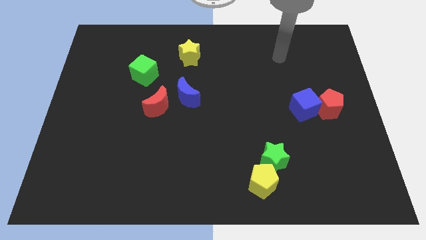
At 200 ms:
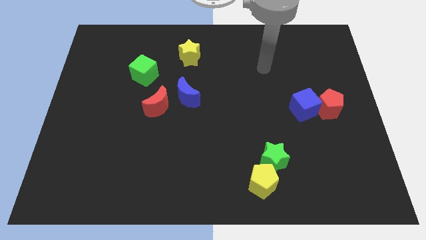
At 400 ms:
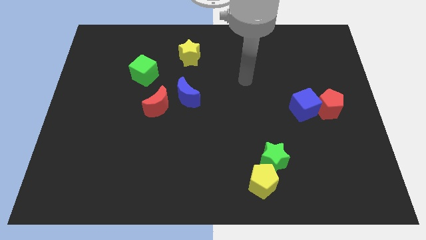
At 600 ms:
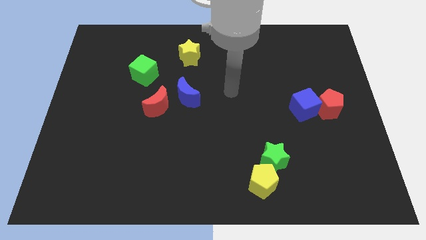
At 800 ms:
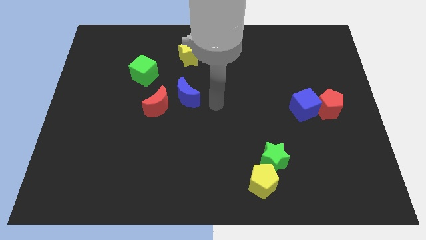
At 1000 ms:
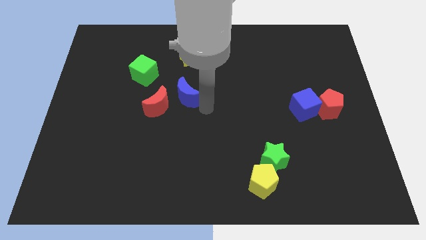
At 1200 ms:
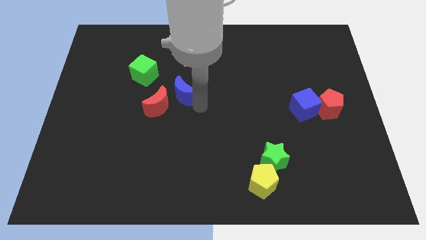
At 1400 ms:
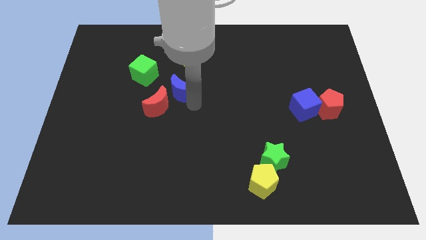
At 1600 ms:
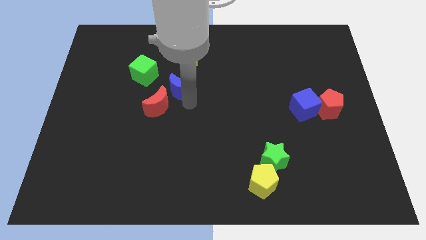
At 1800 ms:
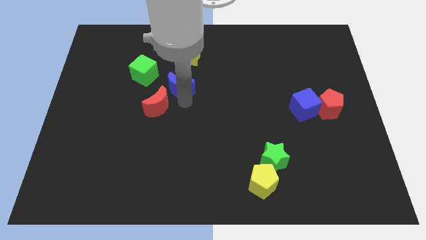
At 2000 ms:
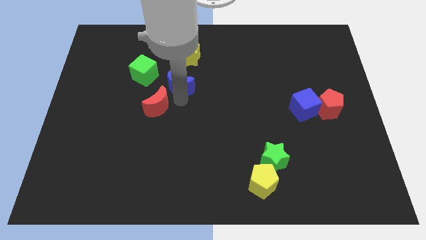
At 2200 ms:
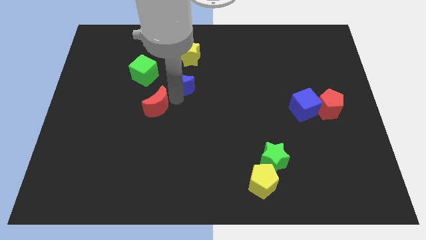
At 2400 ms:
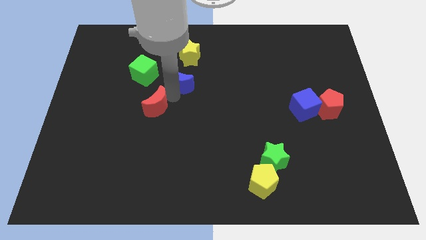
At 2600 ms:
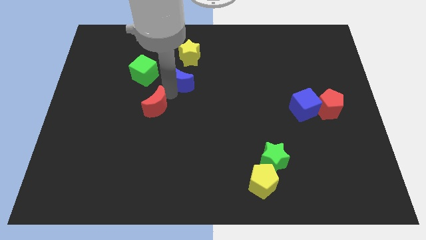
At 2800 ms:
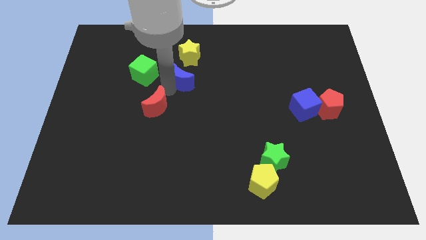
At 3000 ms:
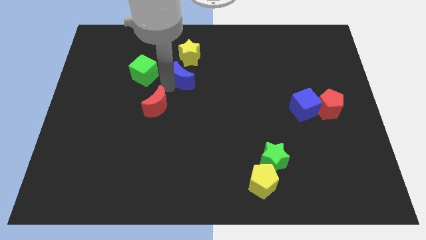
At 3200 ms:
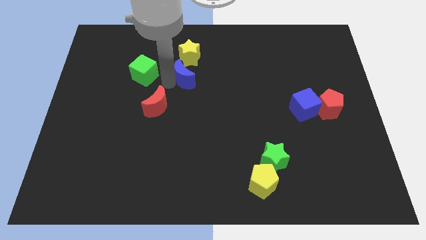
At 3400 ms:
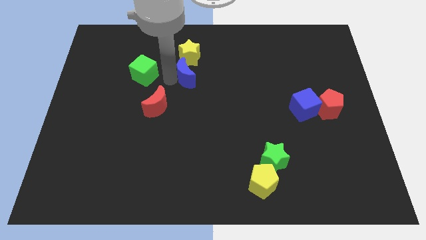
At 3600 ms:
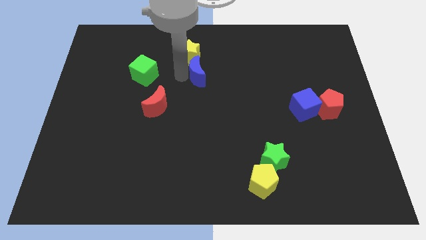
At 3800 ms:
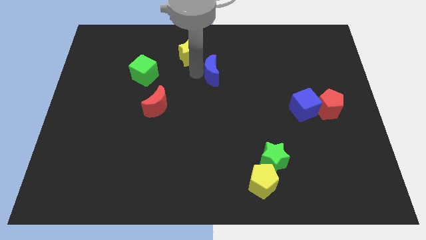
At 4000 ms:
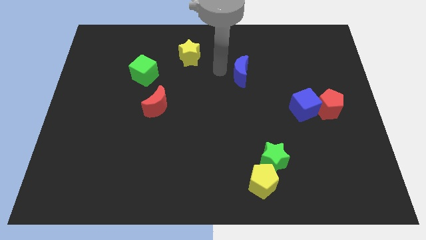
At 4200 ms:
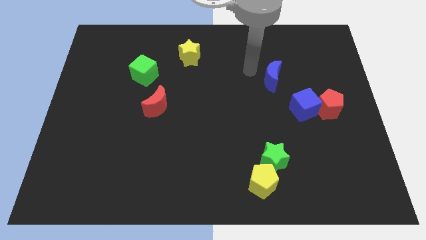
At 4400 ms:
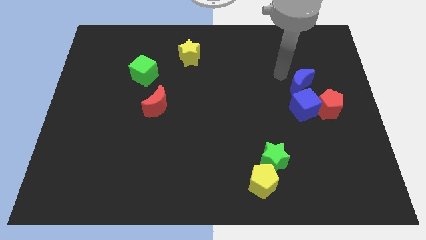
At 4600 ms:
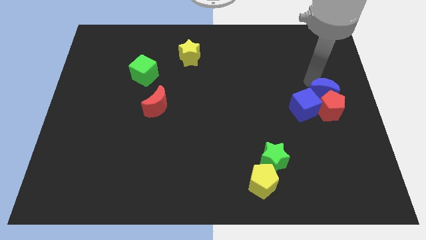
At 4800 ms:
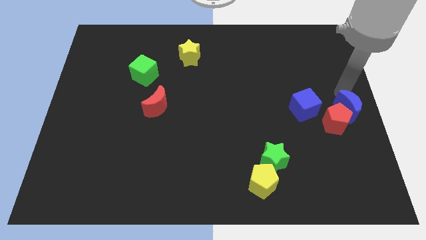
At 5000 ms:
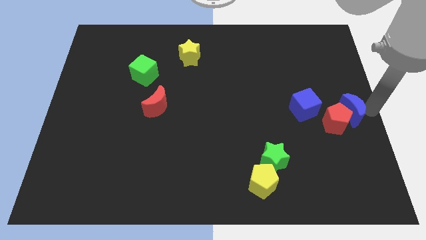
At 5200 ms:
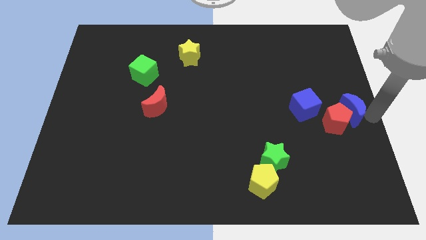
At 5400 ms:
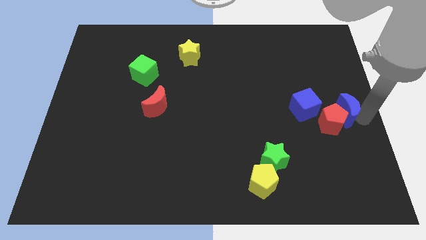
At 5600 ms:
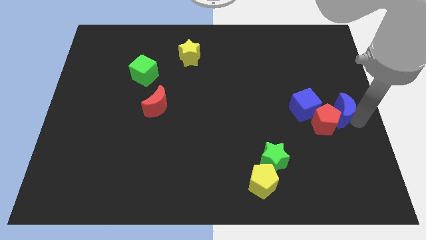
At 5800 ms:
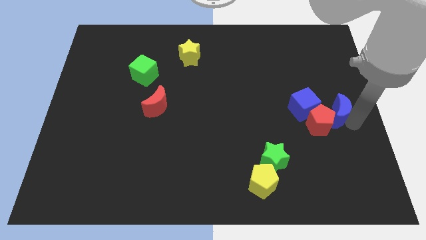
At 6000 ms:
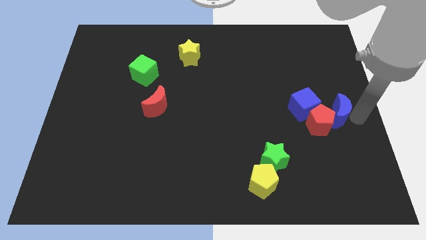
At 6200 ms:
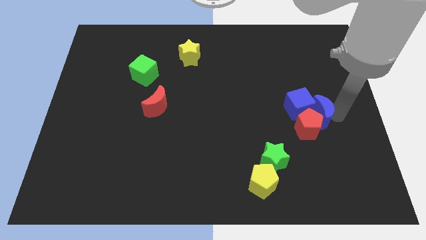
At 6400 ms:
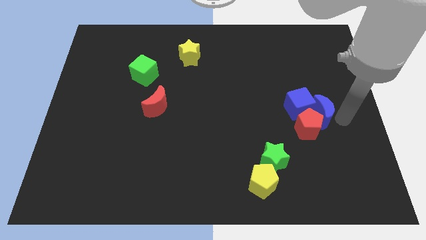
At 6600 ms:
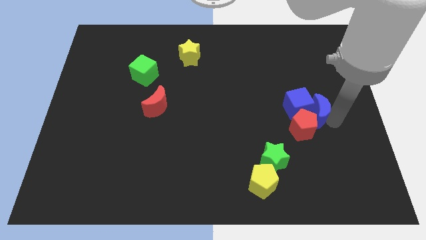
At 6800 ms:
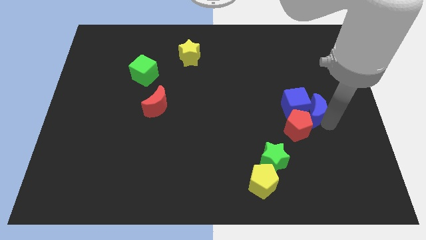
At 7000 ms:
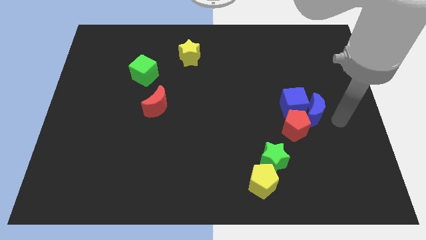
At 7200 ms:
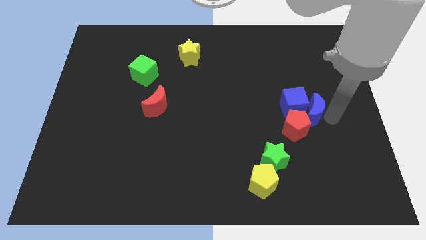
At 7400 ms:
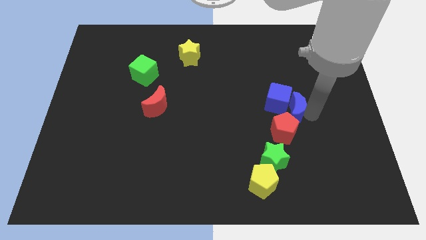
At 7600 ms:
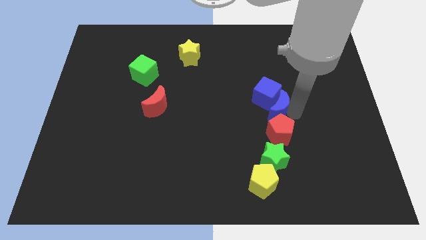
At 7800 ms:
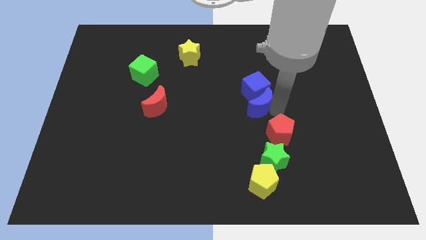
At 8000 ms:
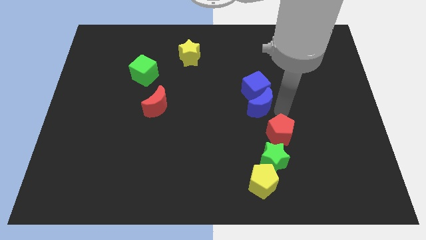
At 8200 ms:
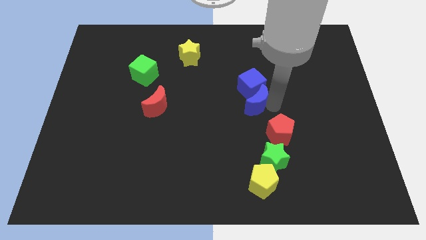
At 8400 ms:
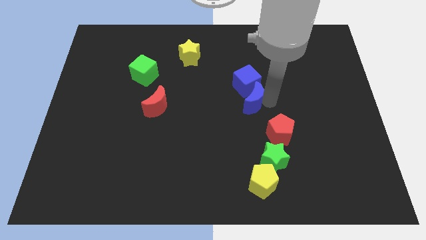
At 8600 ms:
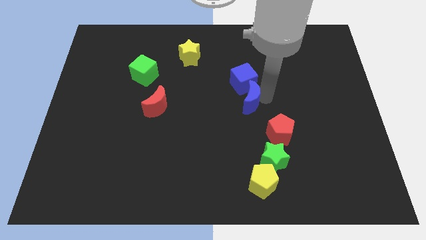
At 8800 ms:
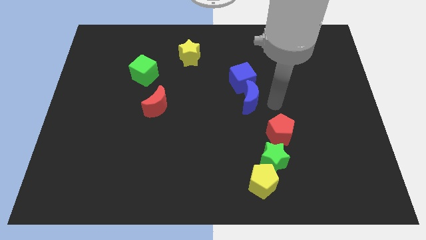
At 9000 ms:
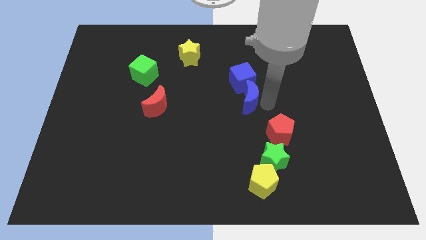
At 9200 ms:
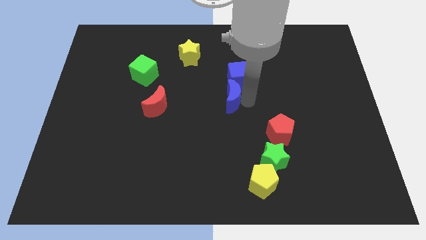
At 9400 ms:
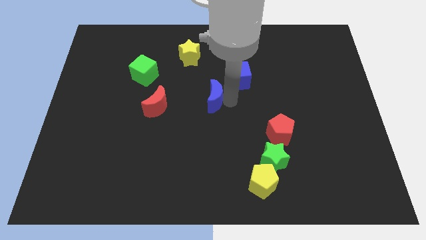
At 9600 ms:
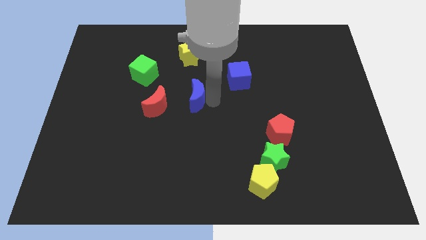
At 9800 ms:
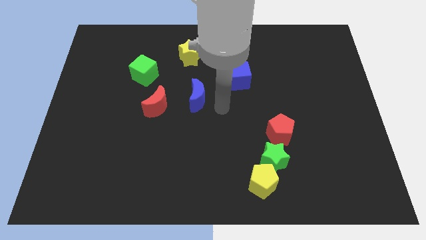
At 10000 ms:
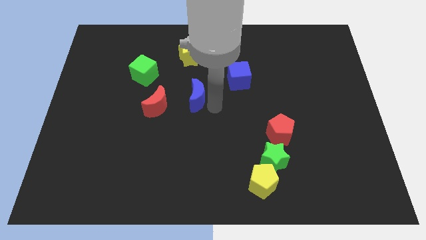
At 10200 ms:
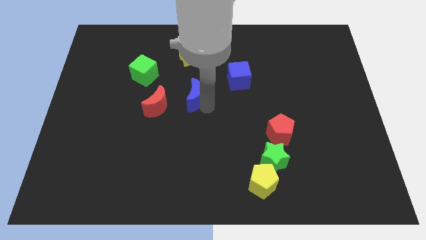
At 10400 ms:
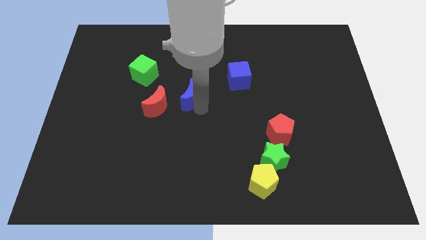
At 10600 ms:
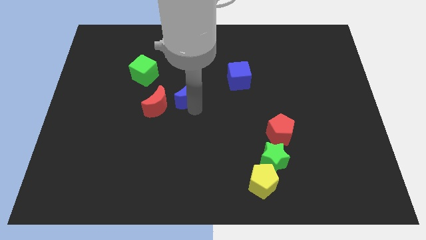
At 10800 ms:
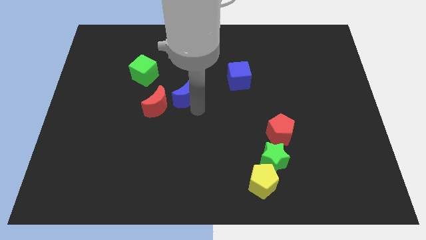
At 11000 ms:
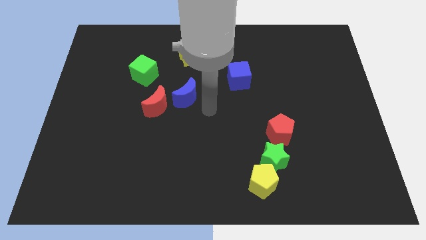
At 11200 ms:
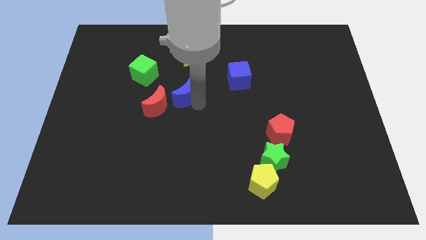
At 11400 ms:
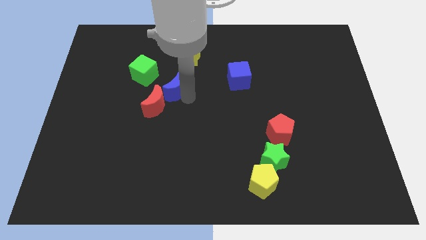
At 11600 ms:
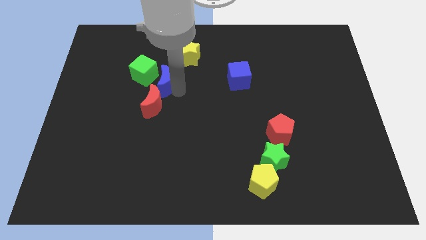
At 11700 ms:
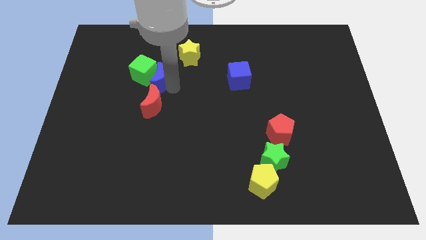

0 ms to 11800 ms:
push the blue moon towards the green cube

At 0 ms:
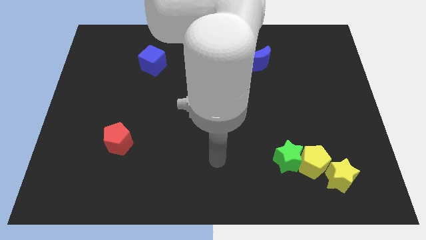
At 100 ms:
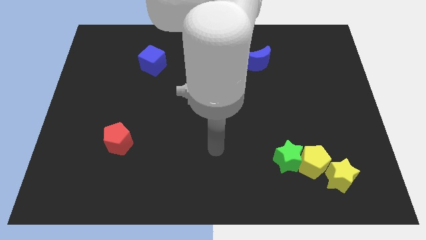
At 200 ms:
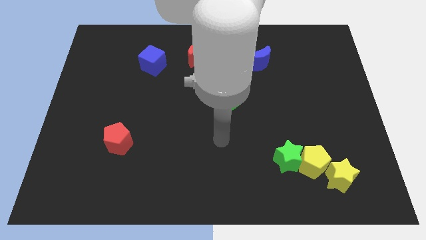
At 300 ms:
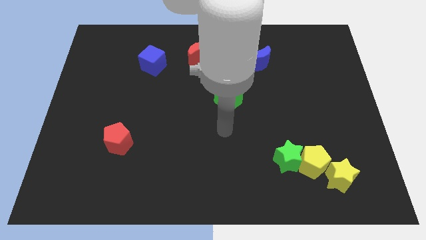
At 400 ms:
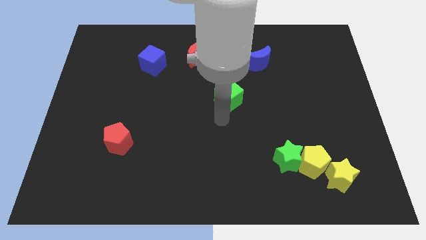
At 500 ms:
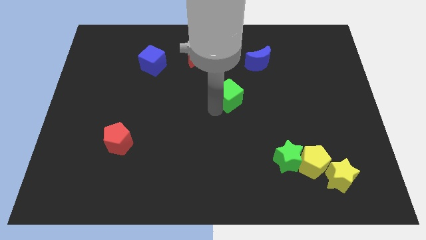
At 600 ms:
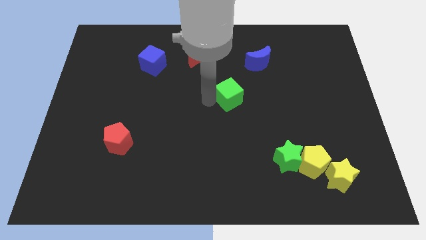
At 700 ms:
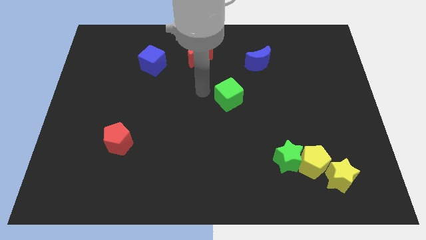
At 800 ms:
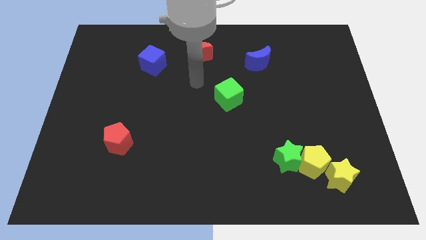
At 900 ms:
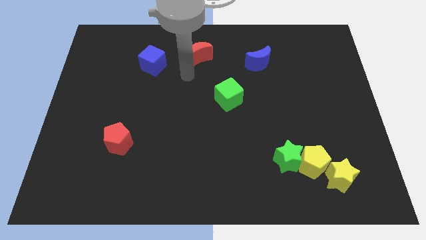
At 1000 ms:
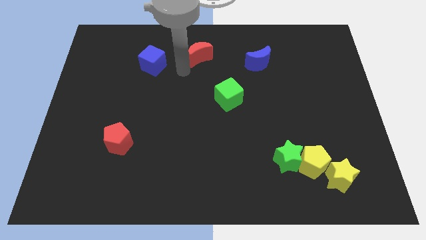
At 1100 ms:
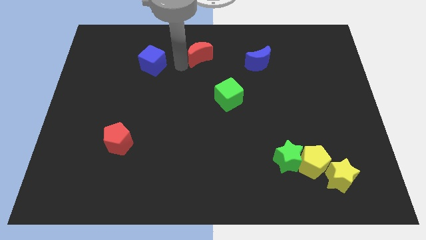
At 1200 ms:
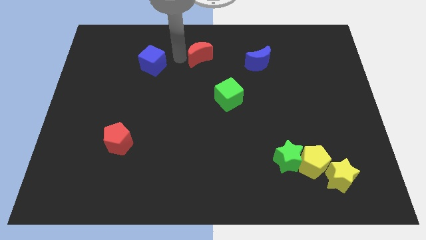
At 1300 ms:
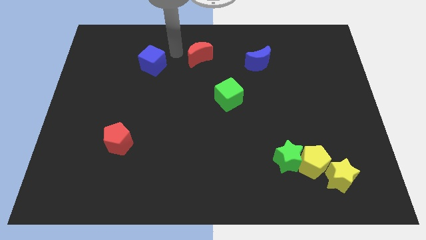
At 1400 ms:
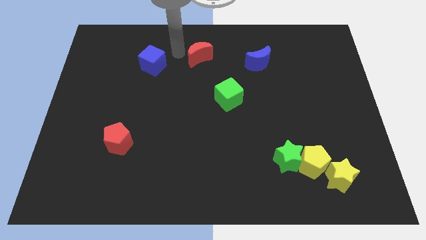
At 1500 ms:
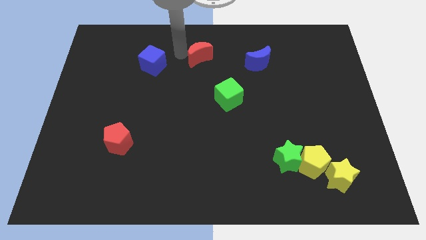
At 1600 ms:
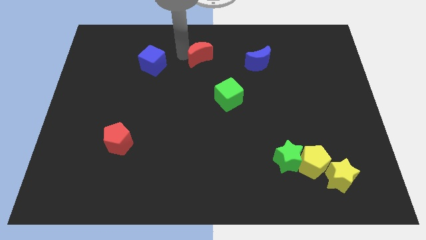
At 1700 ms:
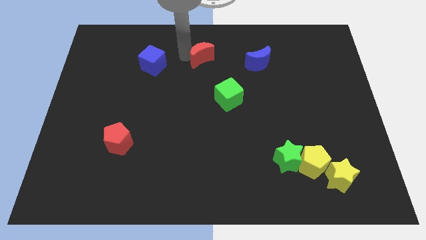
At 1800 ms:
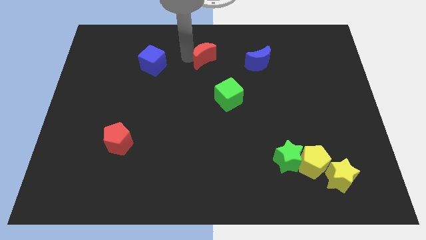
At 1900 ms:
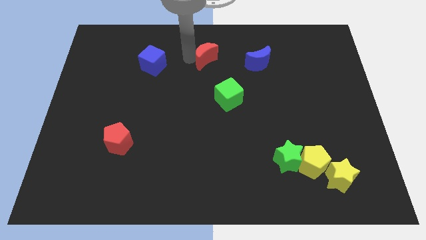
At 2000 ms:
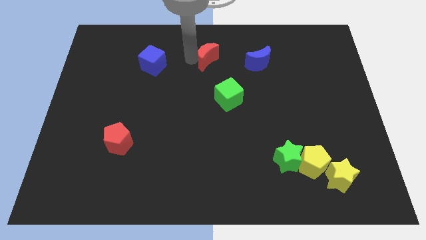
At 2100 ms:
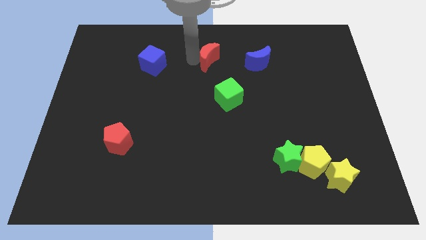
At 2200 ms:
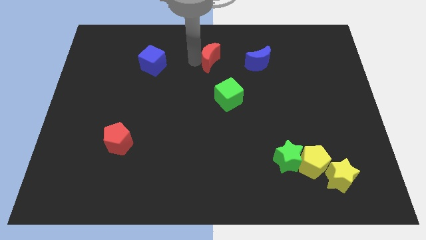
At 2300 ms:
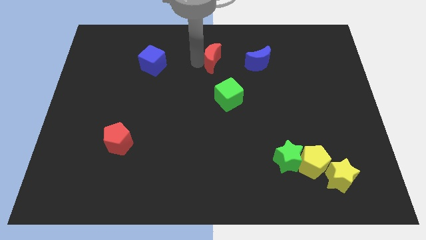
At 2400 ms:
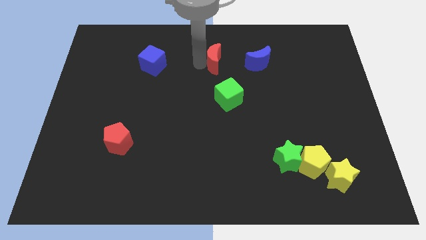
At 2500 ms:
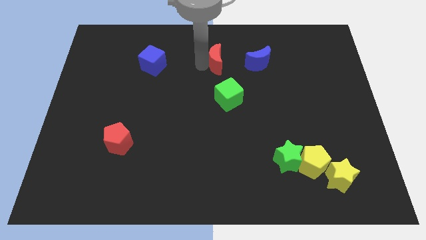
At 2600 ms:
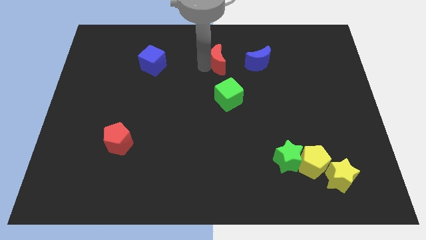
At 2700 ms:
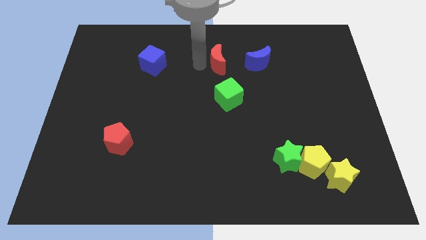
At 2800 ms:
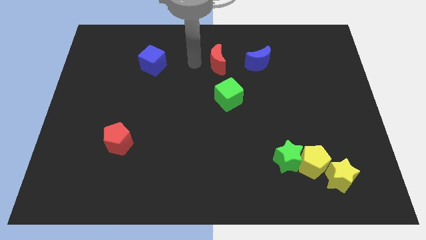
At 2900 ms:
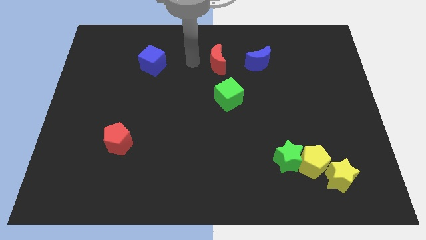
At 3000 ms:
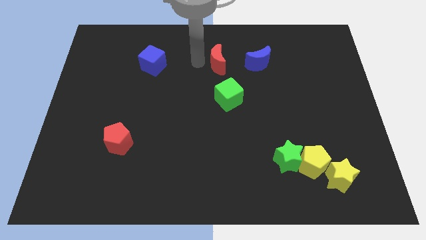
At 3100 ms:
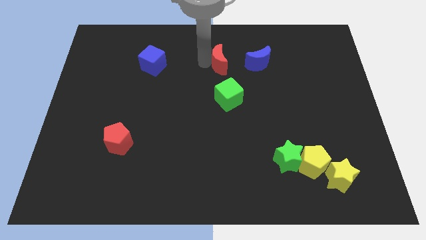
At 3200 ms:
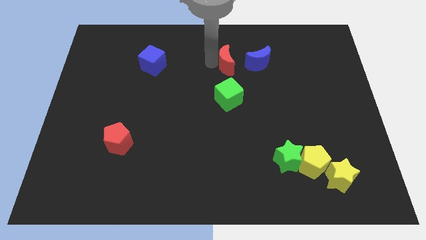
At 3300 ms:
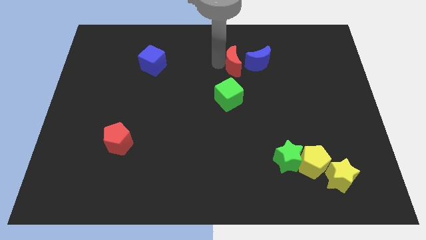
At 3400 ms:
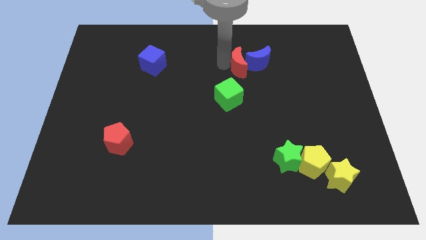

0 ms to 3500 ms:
move the red moon next to the blue moon
